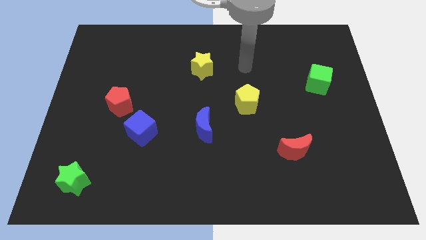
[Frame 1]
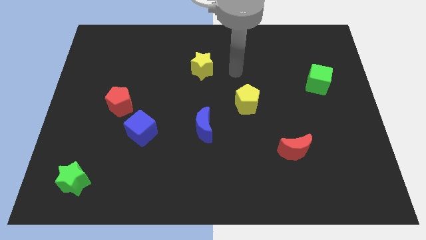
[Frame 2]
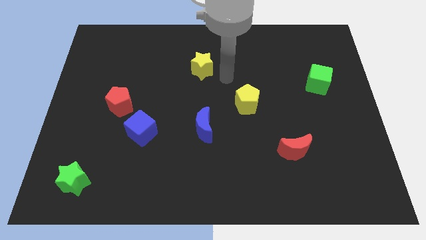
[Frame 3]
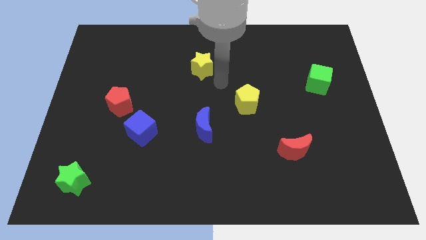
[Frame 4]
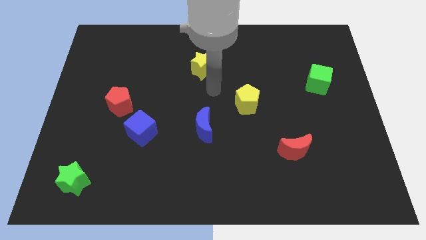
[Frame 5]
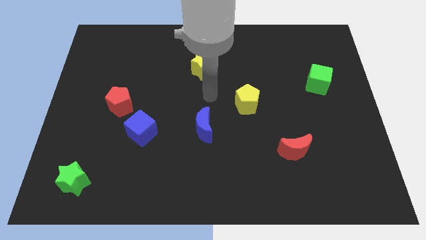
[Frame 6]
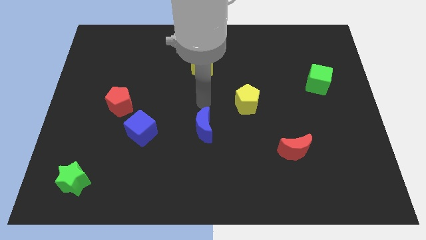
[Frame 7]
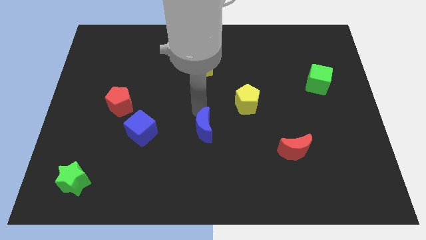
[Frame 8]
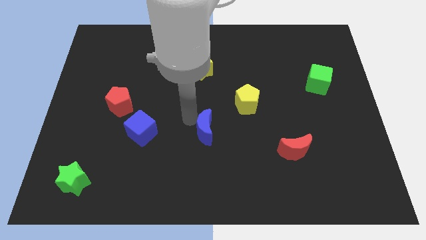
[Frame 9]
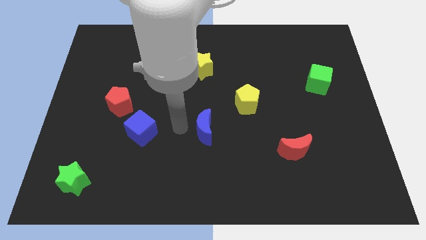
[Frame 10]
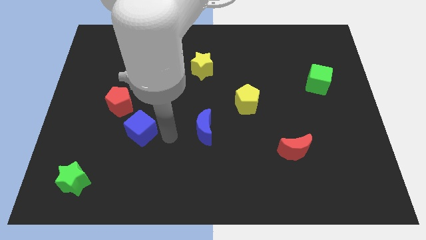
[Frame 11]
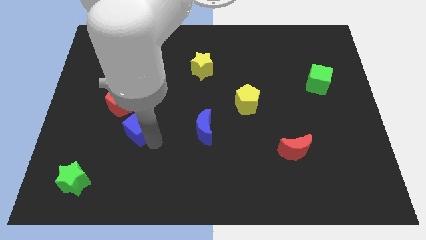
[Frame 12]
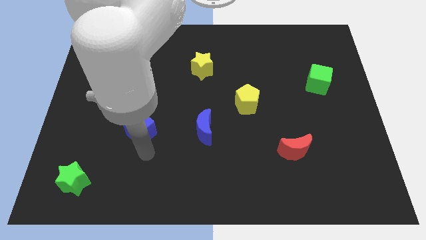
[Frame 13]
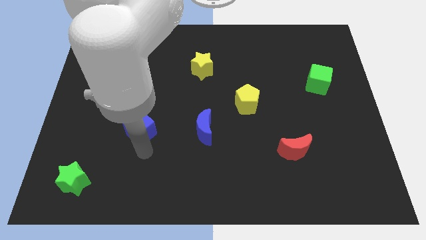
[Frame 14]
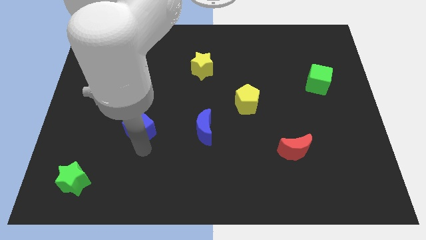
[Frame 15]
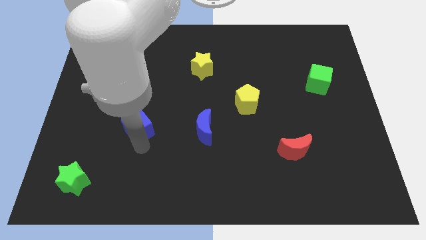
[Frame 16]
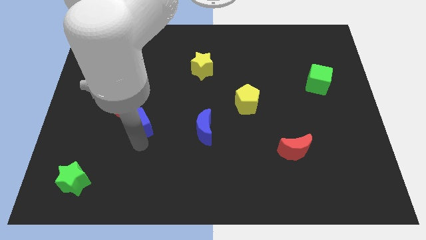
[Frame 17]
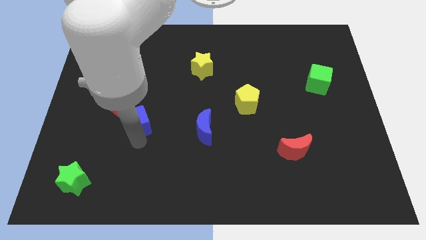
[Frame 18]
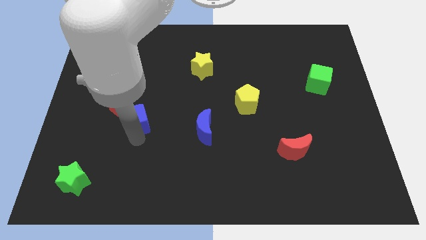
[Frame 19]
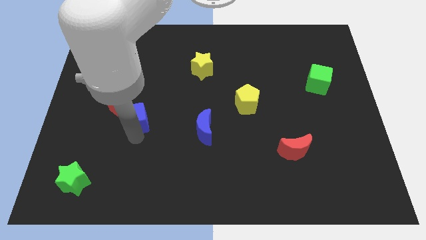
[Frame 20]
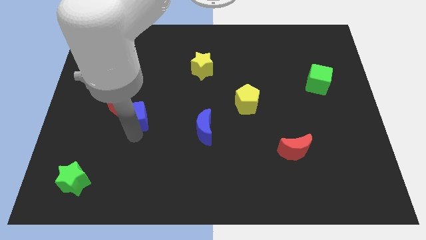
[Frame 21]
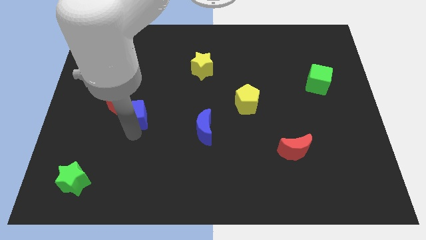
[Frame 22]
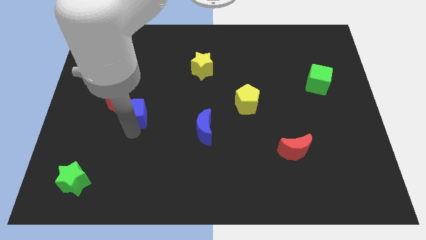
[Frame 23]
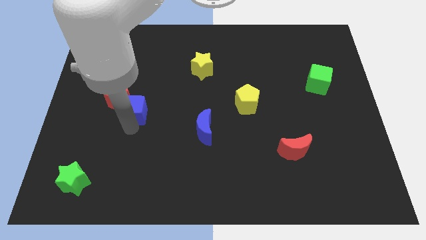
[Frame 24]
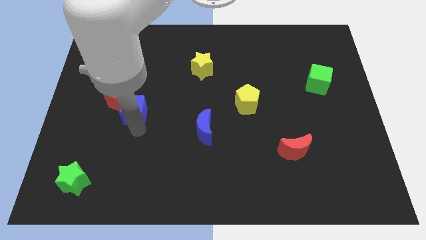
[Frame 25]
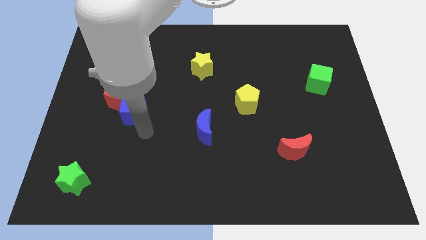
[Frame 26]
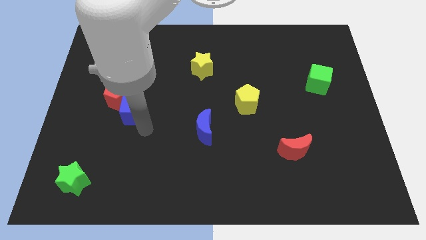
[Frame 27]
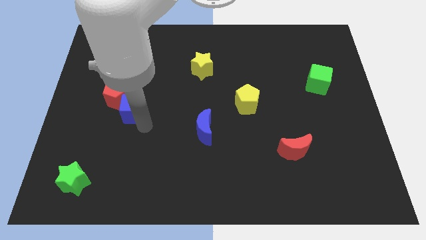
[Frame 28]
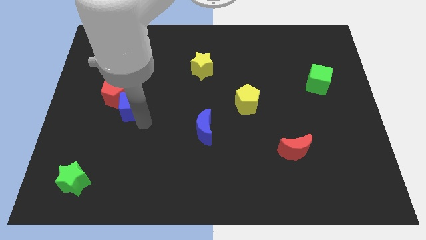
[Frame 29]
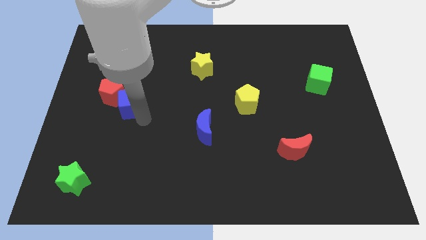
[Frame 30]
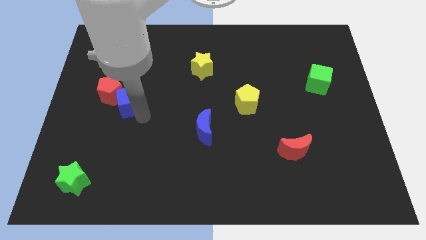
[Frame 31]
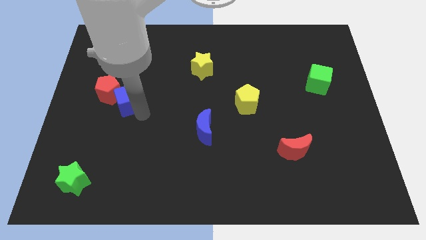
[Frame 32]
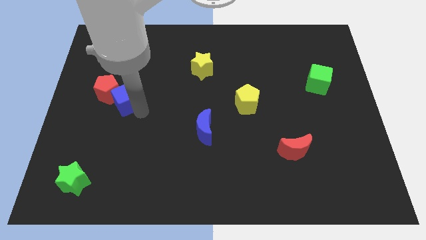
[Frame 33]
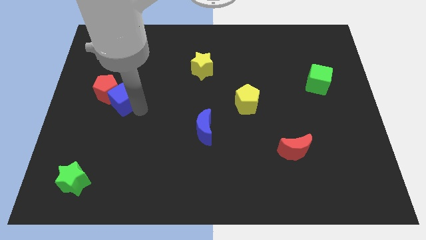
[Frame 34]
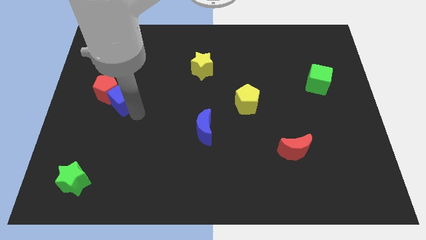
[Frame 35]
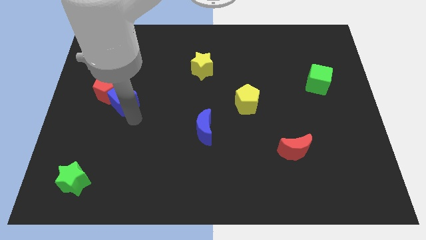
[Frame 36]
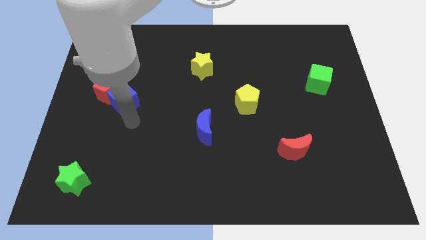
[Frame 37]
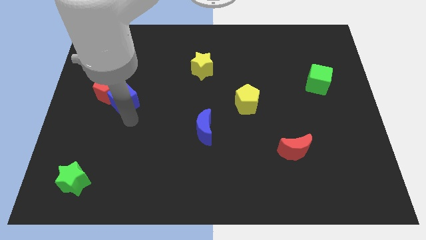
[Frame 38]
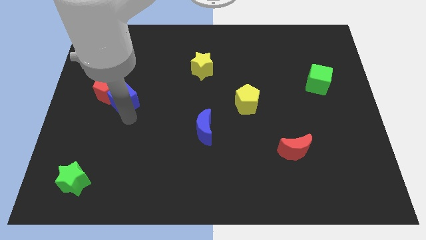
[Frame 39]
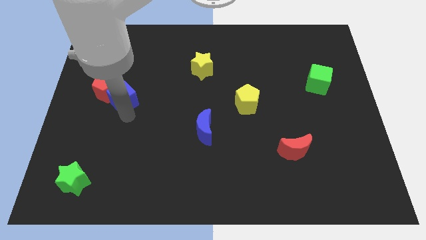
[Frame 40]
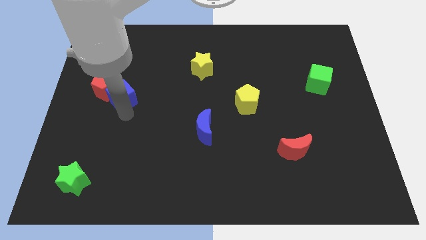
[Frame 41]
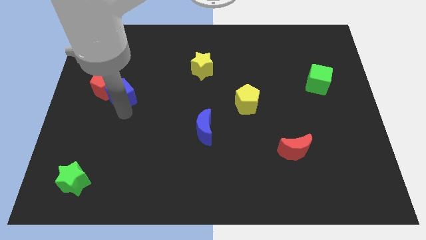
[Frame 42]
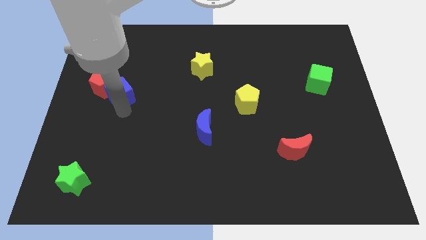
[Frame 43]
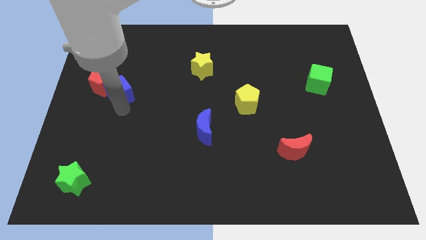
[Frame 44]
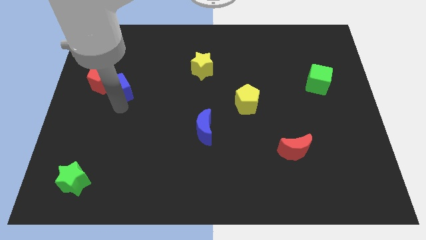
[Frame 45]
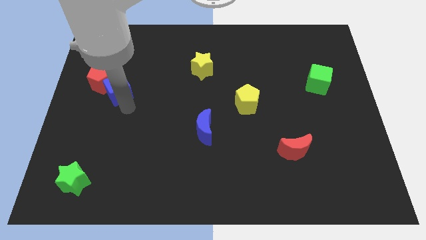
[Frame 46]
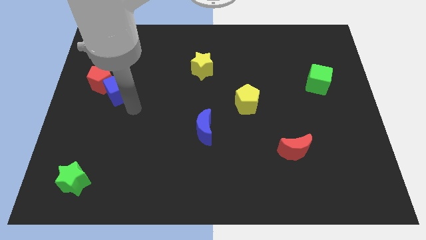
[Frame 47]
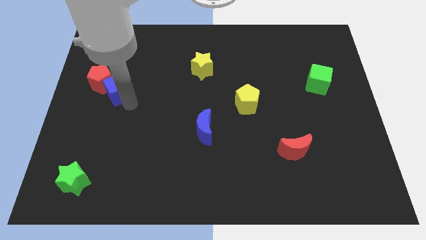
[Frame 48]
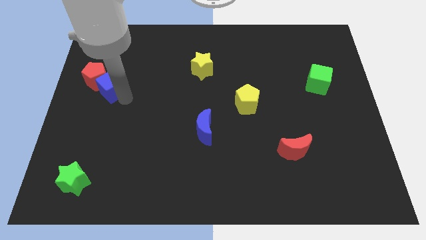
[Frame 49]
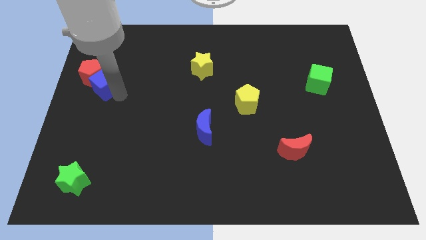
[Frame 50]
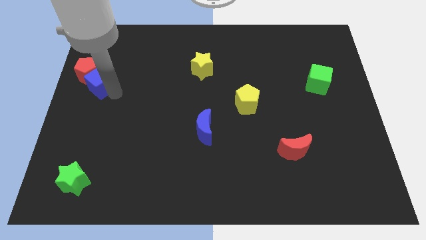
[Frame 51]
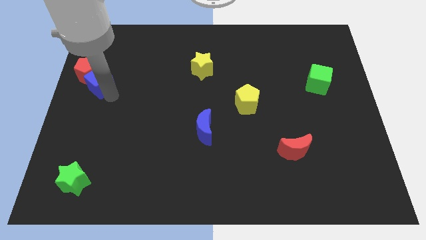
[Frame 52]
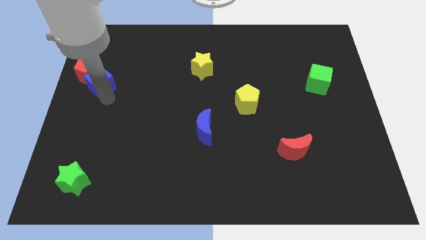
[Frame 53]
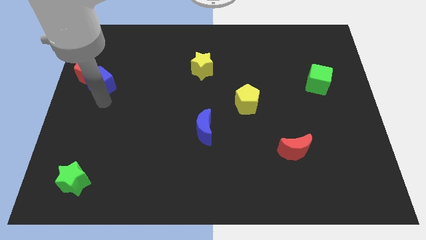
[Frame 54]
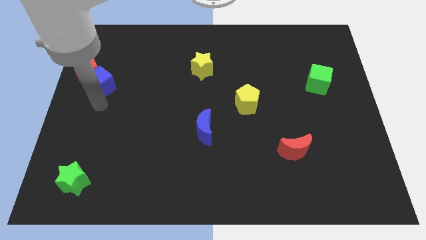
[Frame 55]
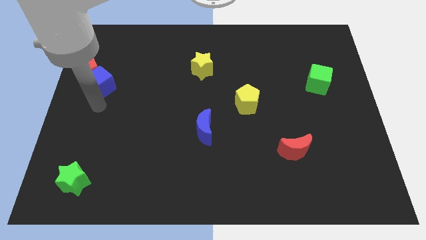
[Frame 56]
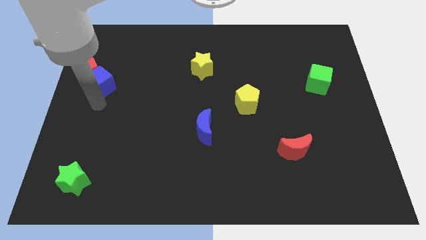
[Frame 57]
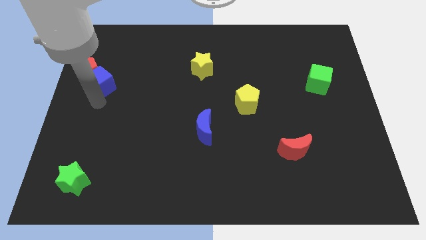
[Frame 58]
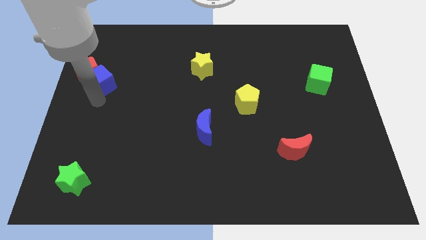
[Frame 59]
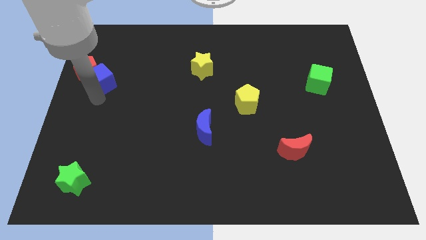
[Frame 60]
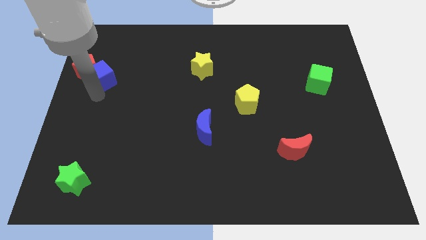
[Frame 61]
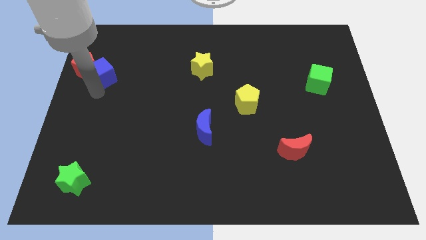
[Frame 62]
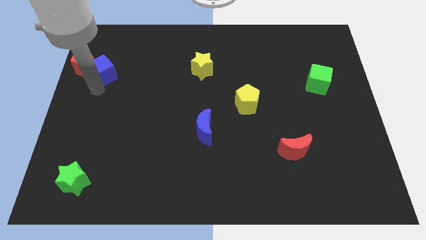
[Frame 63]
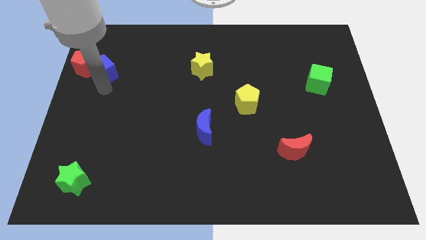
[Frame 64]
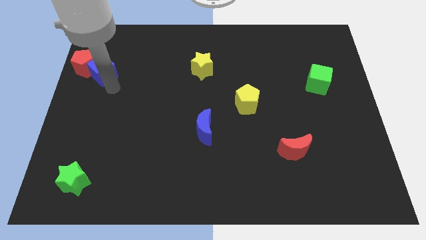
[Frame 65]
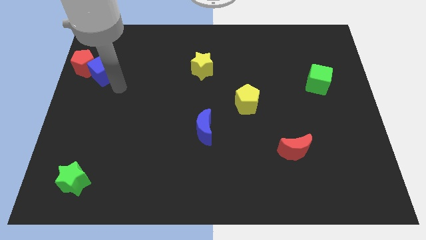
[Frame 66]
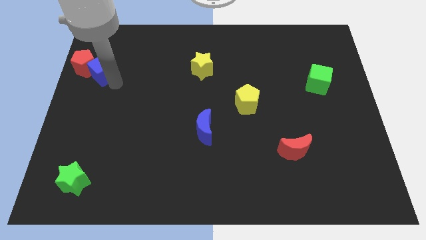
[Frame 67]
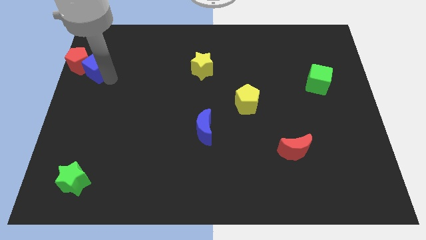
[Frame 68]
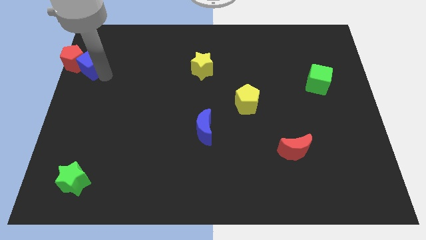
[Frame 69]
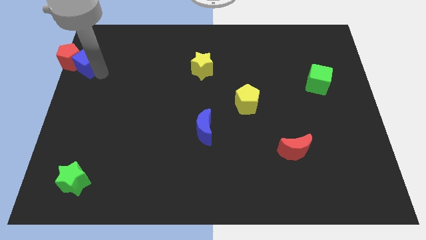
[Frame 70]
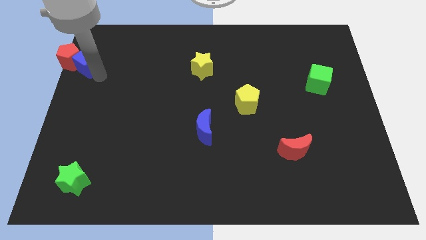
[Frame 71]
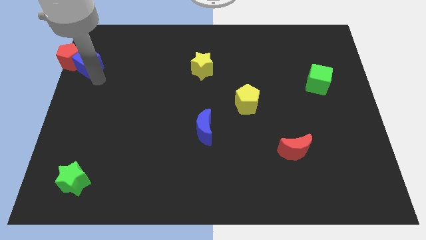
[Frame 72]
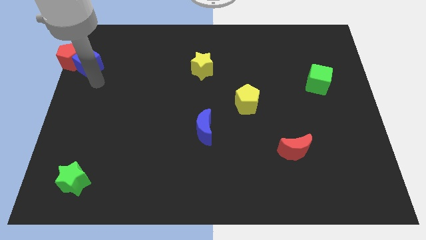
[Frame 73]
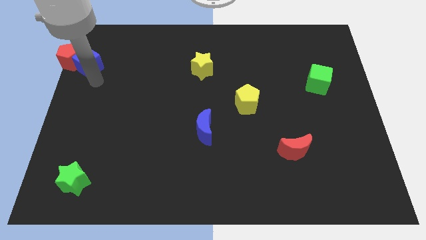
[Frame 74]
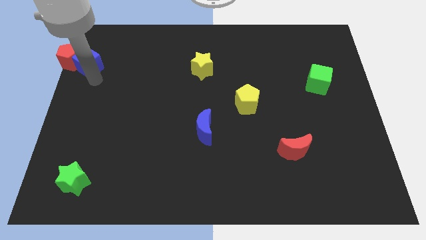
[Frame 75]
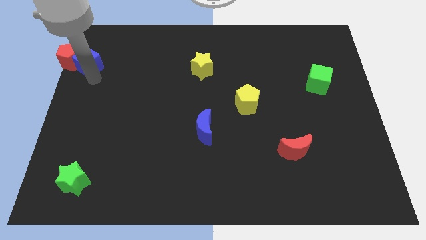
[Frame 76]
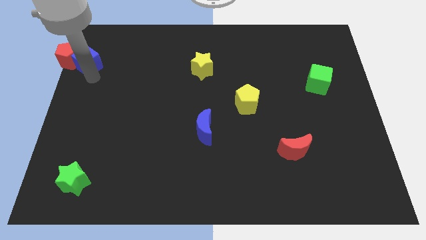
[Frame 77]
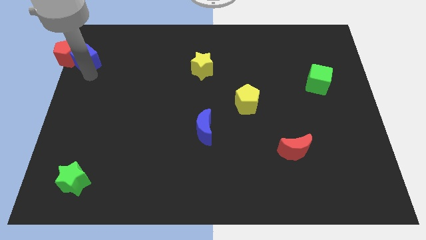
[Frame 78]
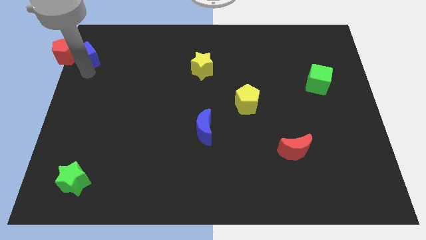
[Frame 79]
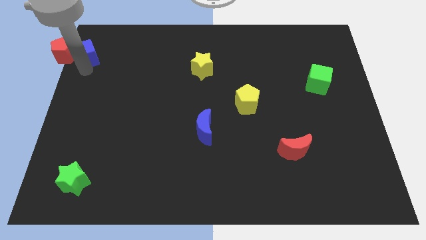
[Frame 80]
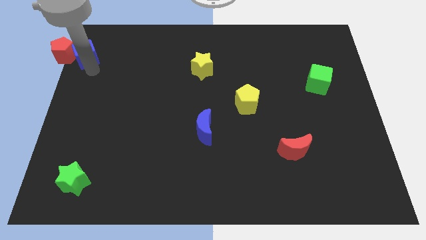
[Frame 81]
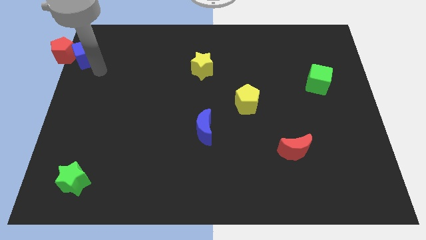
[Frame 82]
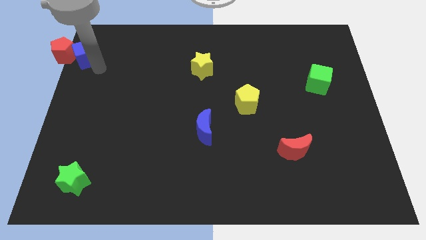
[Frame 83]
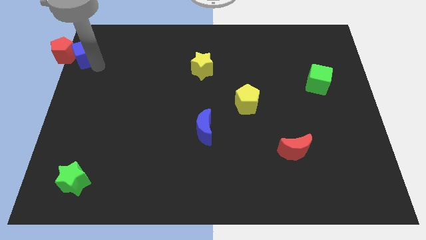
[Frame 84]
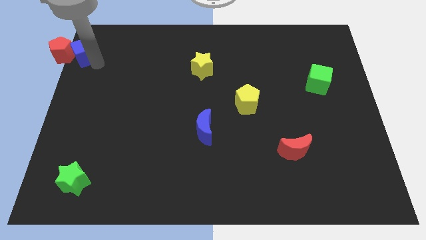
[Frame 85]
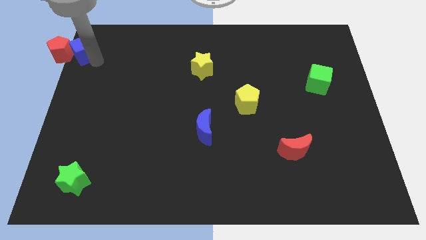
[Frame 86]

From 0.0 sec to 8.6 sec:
push the blue cube to the top left corner
